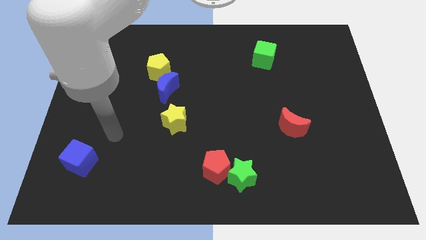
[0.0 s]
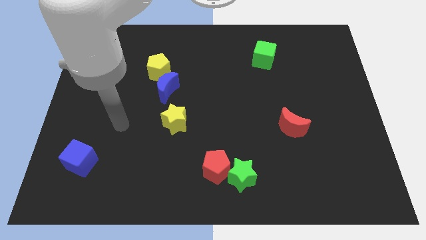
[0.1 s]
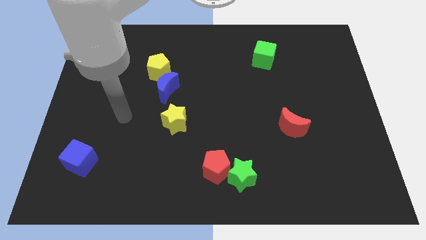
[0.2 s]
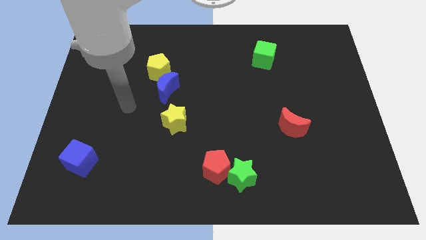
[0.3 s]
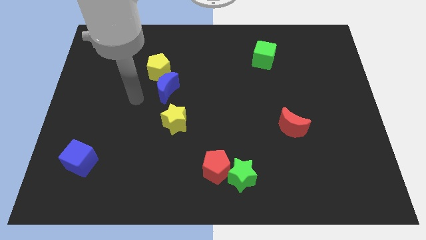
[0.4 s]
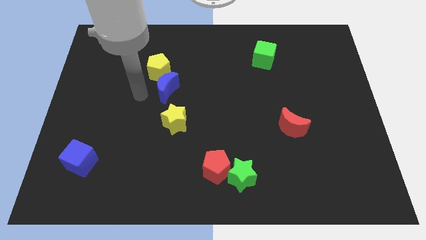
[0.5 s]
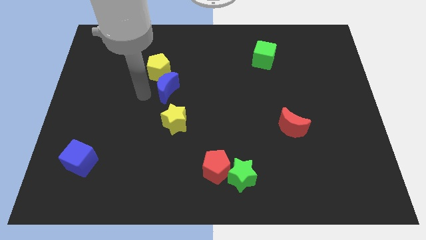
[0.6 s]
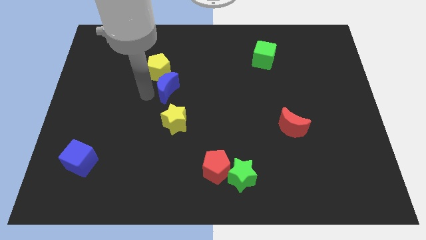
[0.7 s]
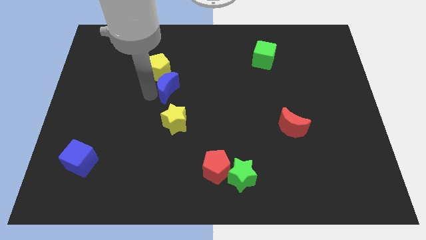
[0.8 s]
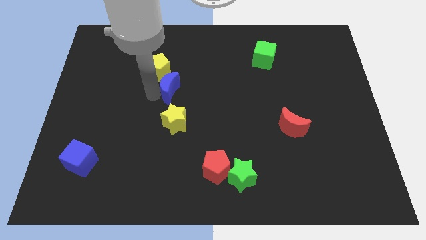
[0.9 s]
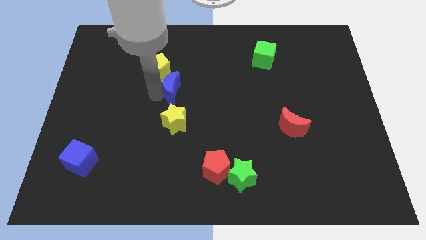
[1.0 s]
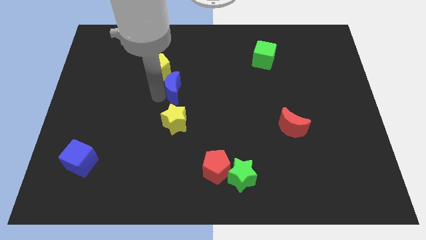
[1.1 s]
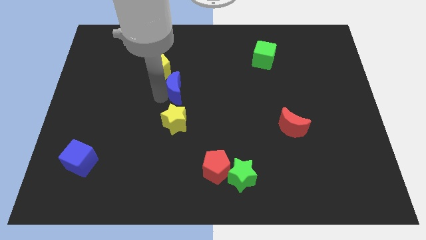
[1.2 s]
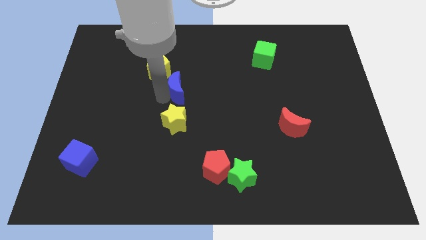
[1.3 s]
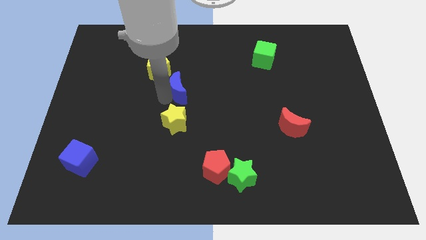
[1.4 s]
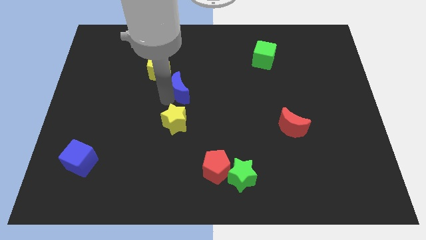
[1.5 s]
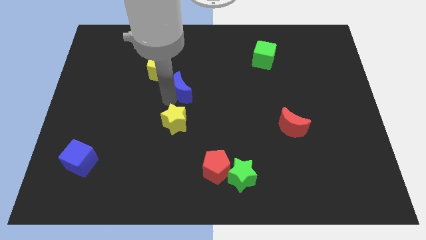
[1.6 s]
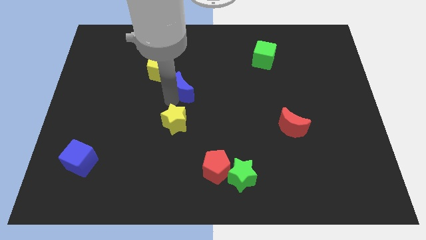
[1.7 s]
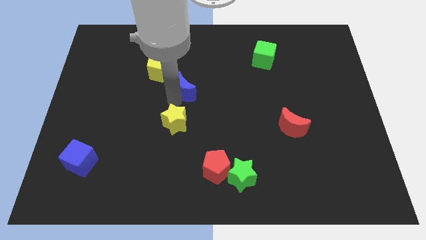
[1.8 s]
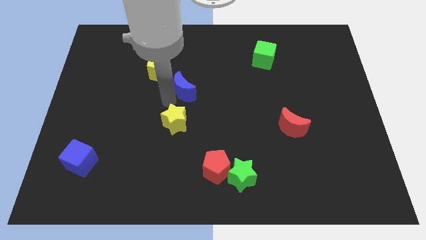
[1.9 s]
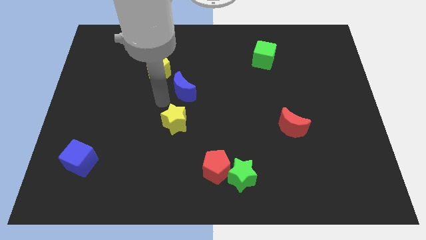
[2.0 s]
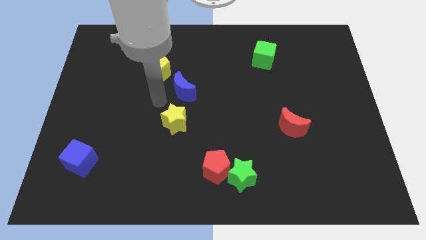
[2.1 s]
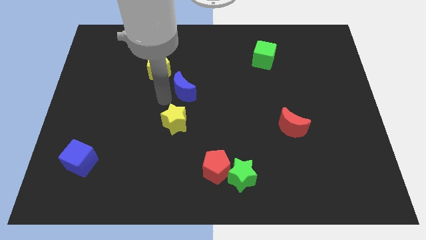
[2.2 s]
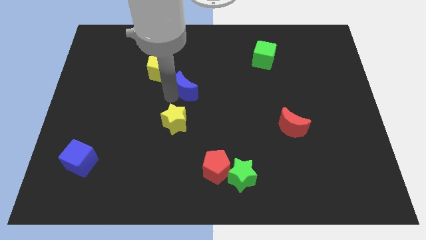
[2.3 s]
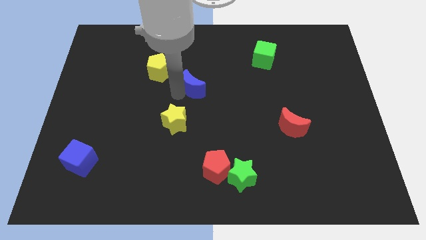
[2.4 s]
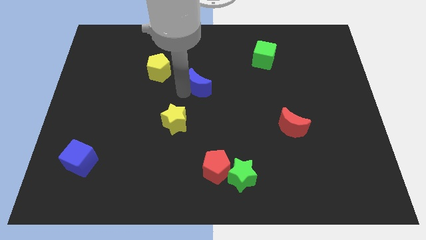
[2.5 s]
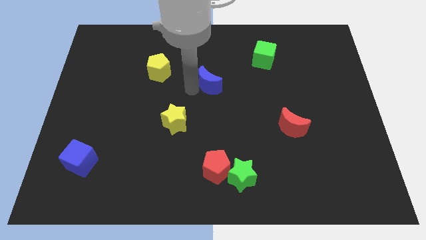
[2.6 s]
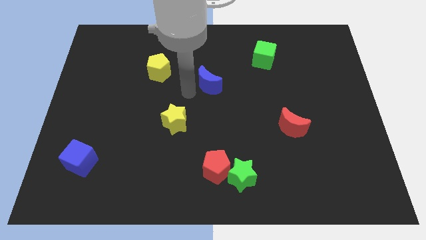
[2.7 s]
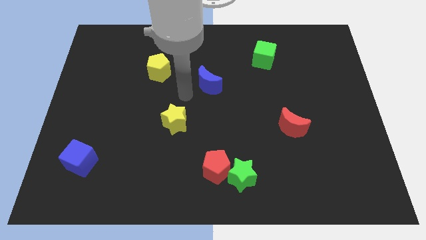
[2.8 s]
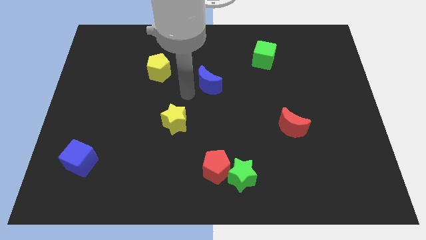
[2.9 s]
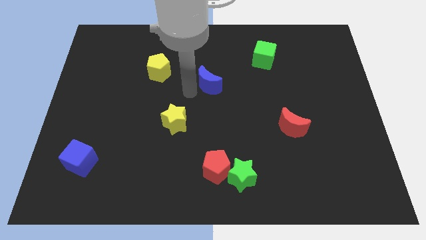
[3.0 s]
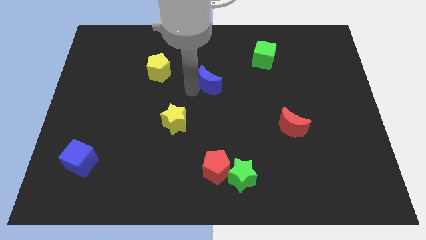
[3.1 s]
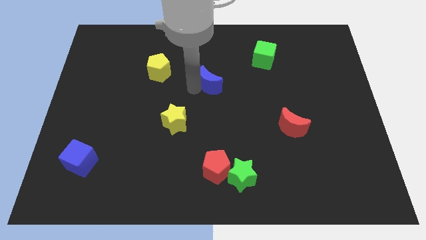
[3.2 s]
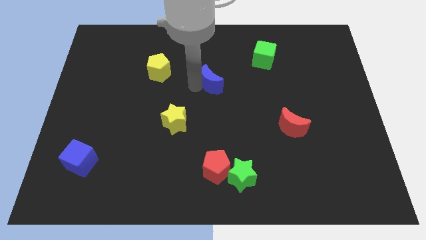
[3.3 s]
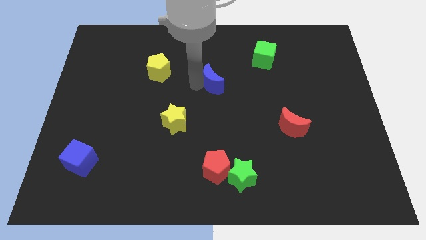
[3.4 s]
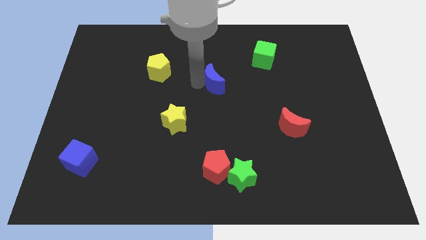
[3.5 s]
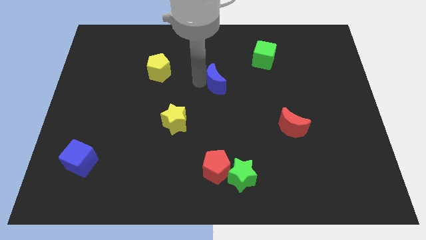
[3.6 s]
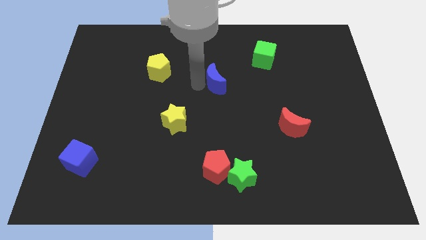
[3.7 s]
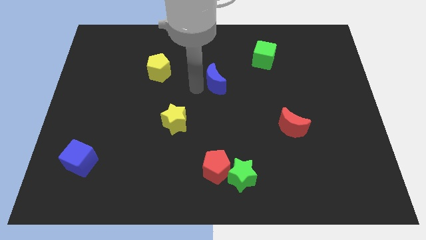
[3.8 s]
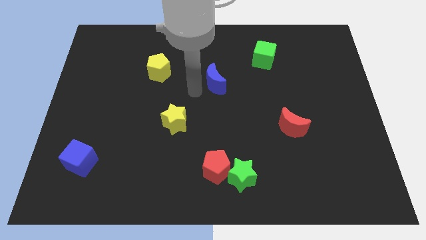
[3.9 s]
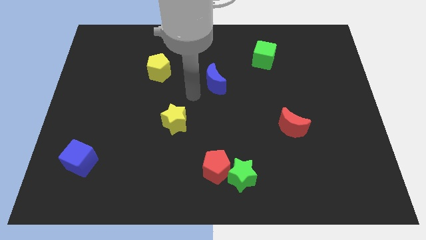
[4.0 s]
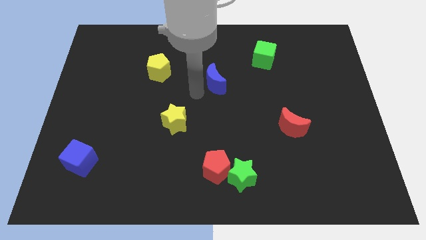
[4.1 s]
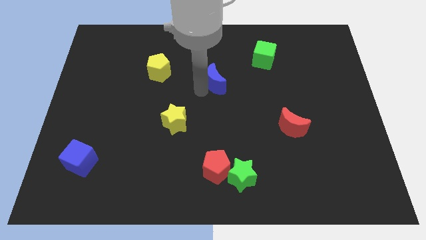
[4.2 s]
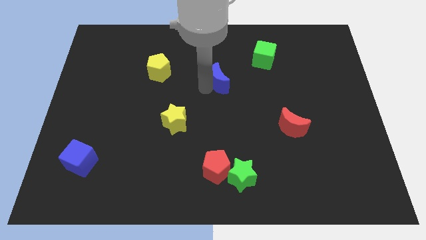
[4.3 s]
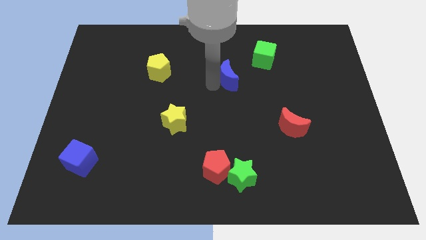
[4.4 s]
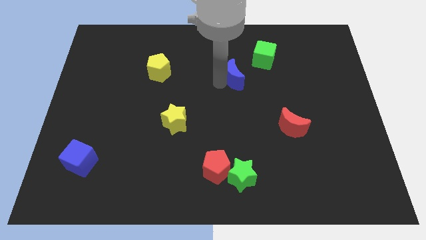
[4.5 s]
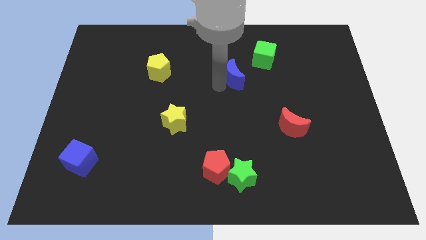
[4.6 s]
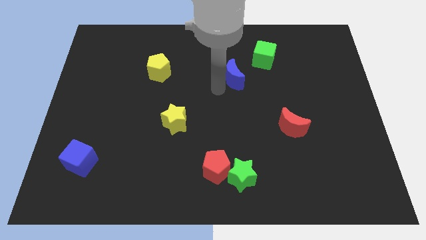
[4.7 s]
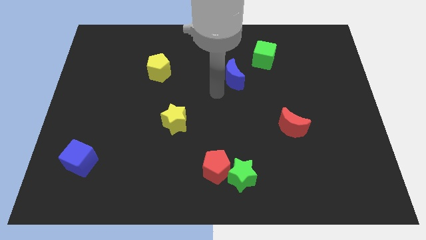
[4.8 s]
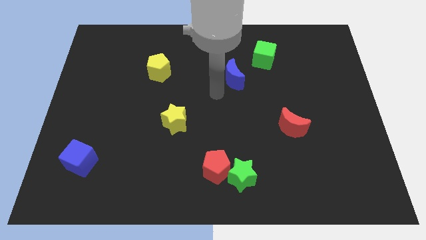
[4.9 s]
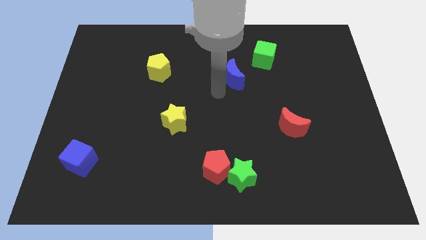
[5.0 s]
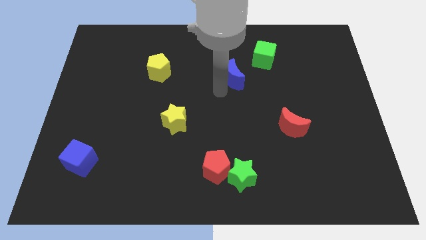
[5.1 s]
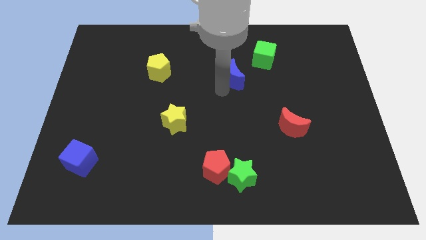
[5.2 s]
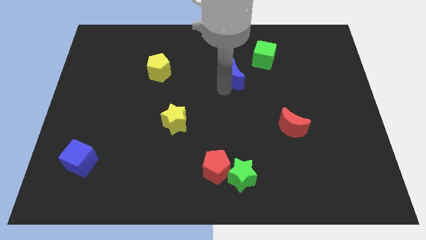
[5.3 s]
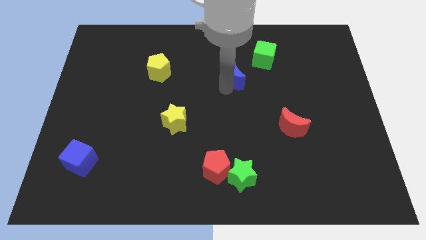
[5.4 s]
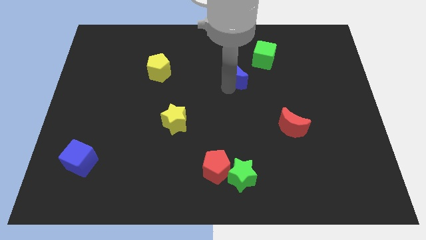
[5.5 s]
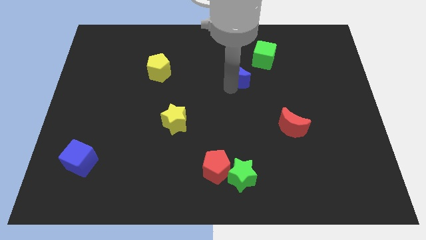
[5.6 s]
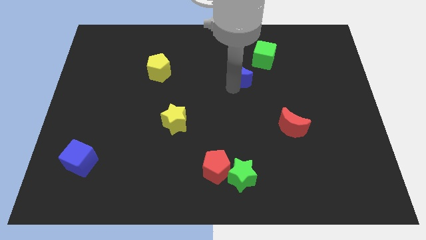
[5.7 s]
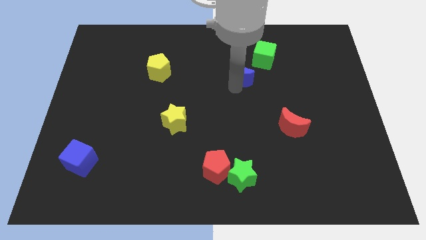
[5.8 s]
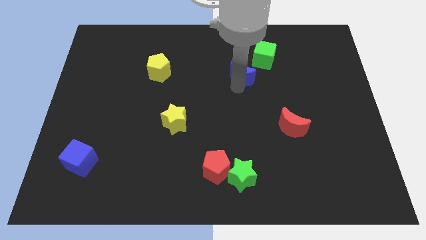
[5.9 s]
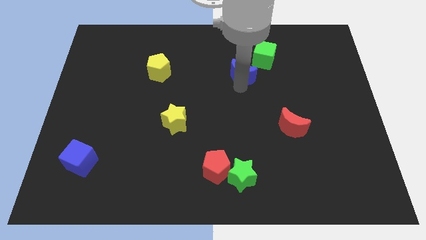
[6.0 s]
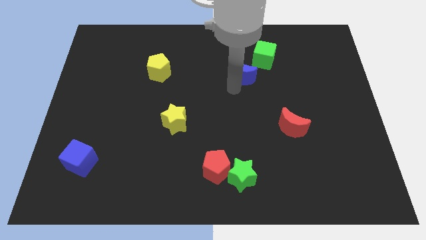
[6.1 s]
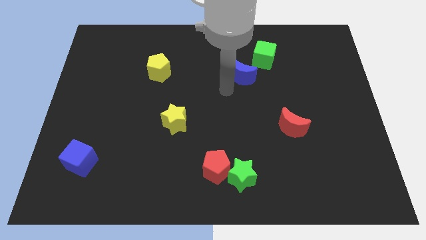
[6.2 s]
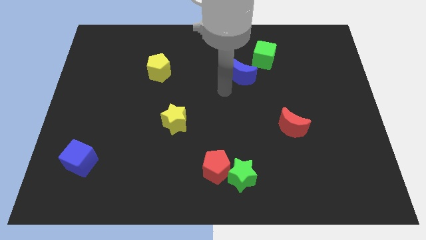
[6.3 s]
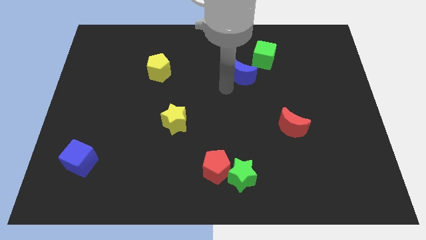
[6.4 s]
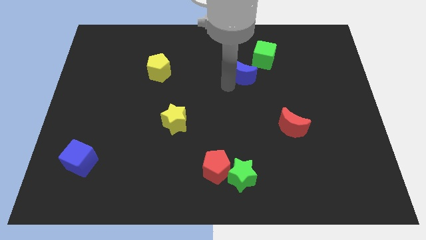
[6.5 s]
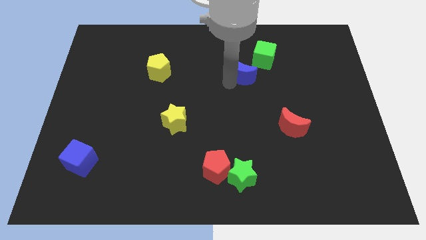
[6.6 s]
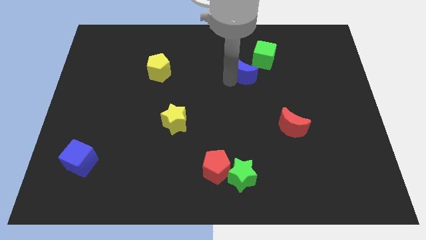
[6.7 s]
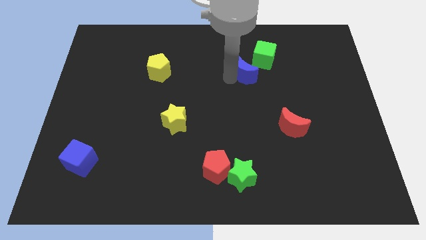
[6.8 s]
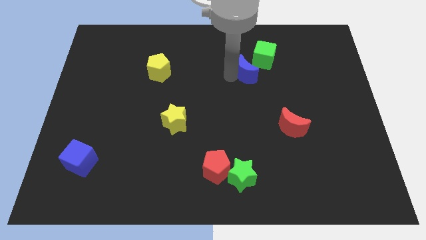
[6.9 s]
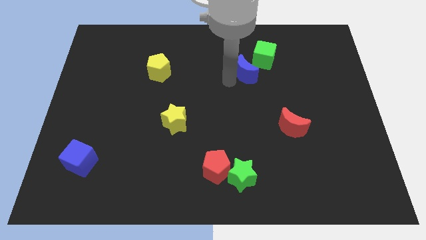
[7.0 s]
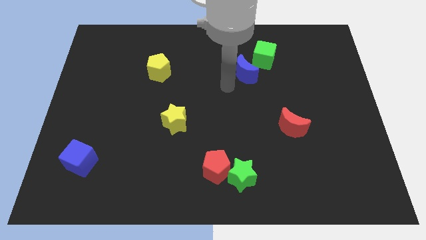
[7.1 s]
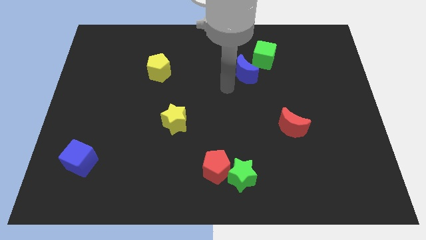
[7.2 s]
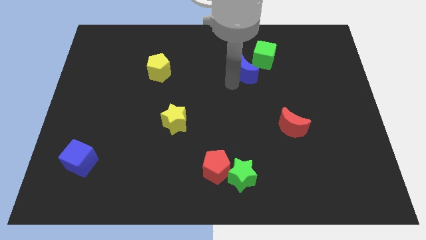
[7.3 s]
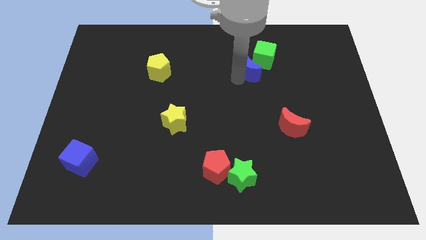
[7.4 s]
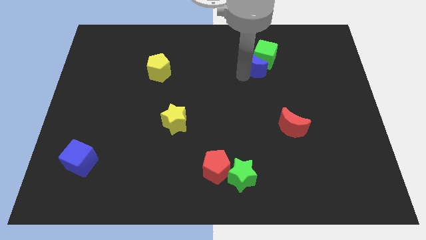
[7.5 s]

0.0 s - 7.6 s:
move the blue moon to the green cube
